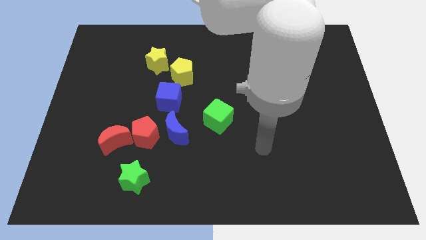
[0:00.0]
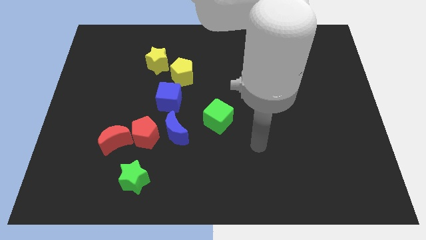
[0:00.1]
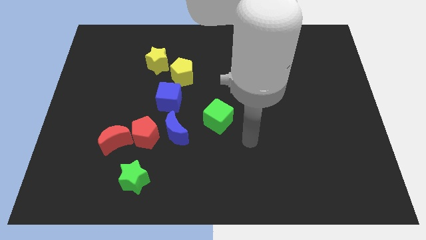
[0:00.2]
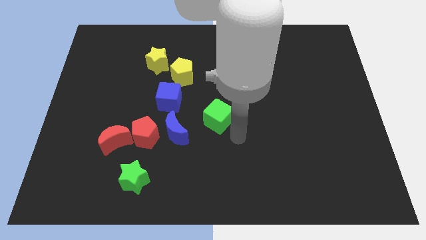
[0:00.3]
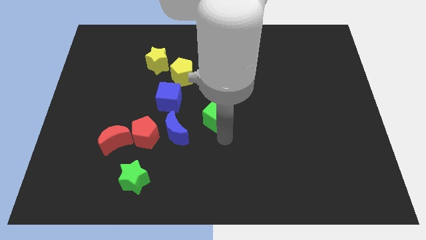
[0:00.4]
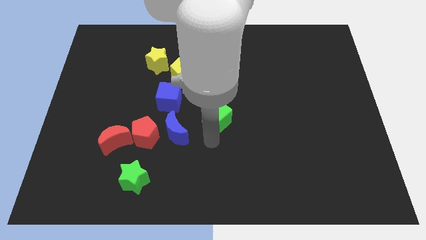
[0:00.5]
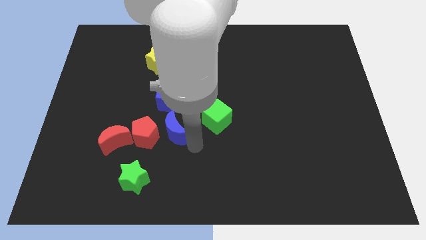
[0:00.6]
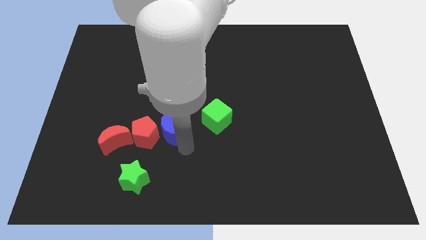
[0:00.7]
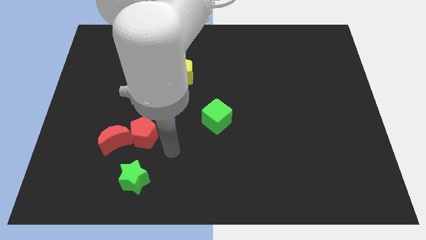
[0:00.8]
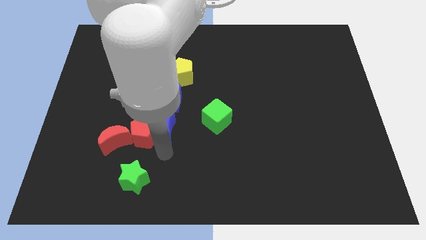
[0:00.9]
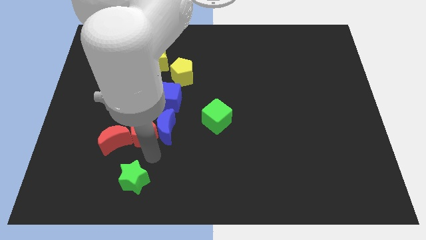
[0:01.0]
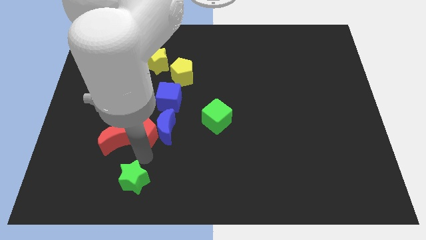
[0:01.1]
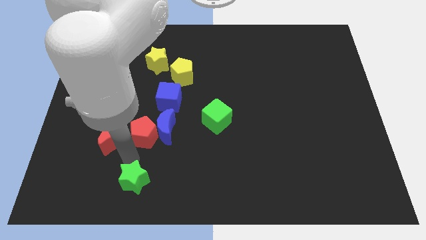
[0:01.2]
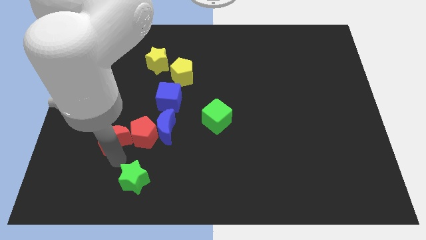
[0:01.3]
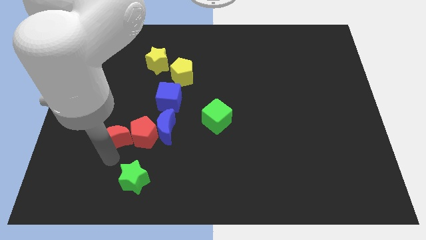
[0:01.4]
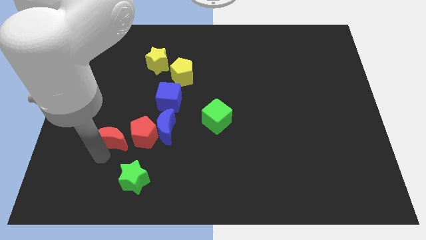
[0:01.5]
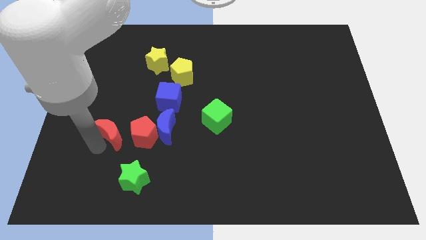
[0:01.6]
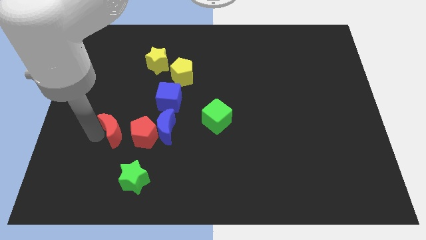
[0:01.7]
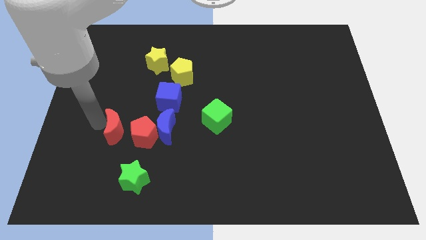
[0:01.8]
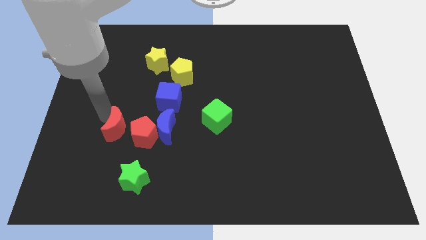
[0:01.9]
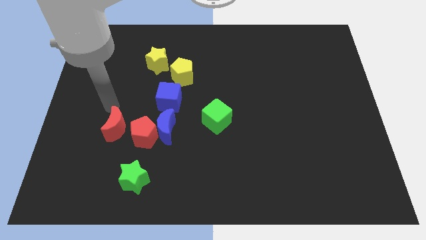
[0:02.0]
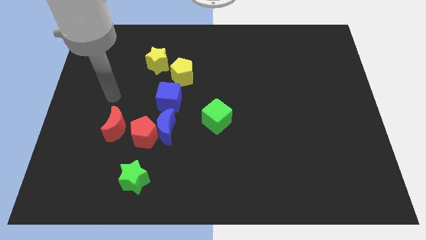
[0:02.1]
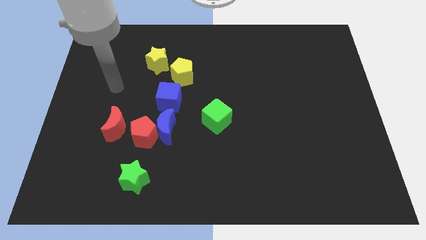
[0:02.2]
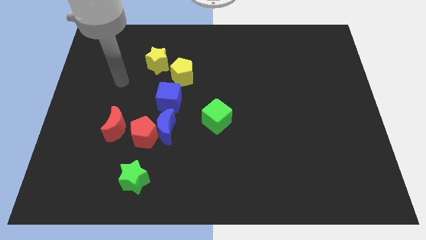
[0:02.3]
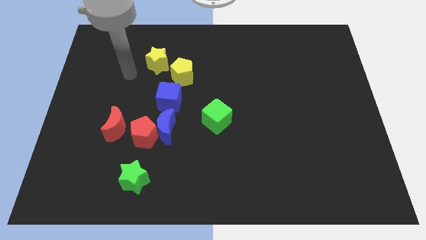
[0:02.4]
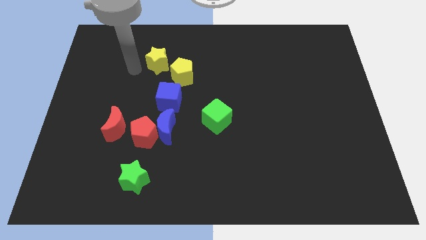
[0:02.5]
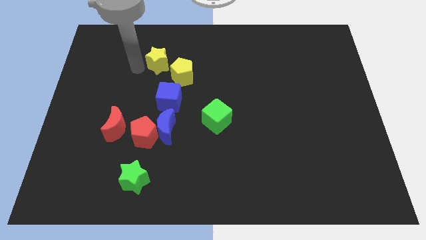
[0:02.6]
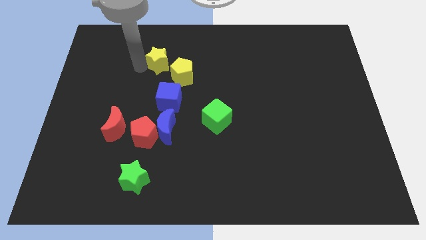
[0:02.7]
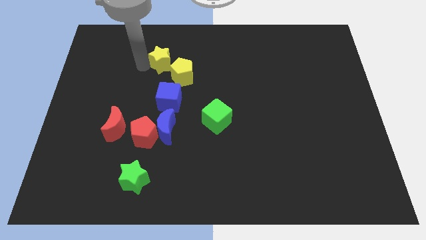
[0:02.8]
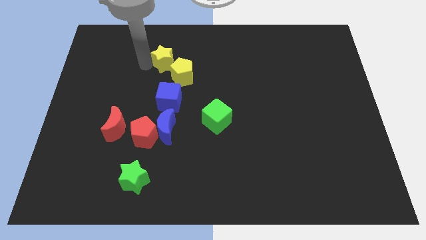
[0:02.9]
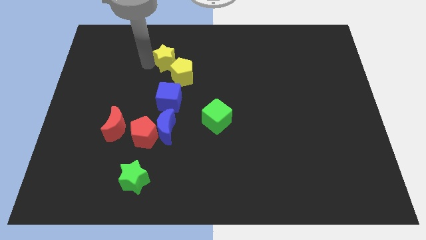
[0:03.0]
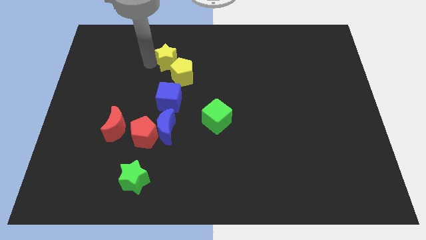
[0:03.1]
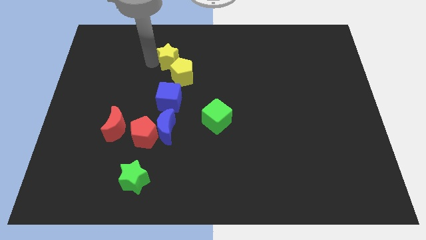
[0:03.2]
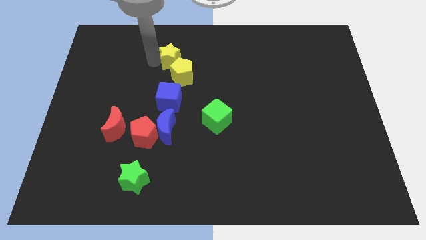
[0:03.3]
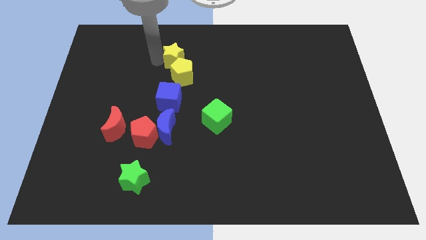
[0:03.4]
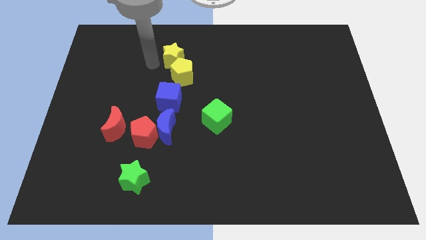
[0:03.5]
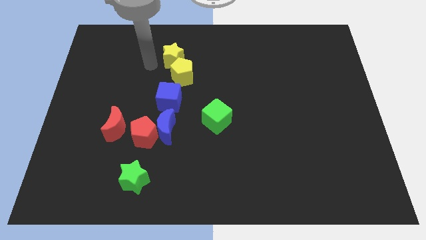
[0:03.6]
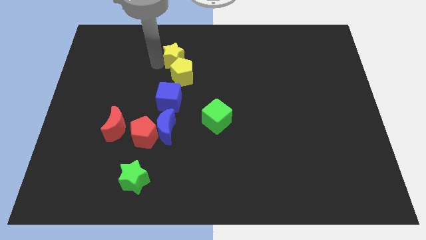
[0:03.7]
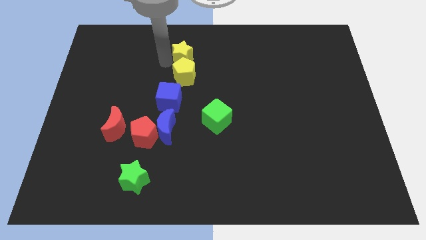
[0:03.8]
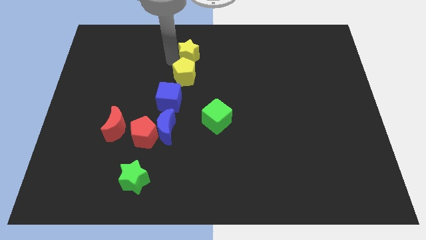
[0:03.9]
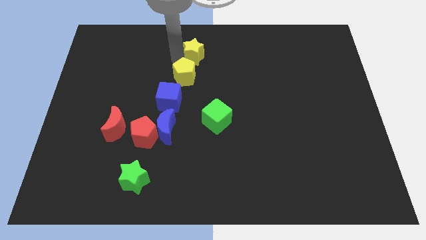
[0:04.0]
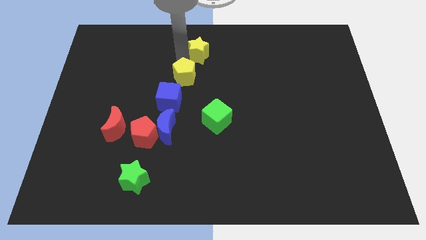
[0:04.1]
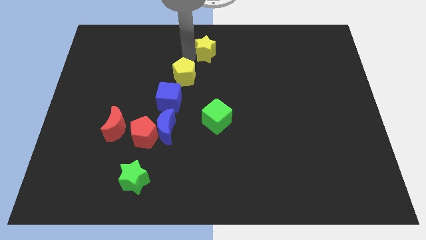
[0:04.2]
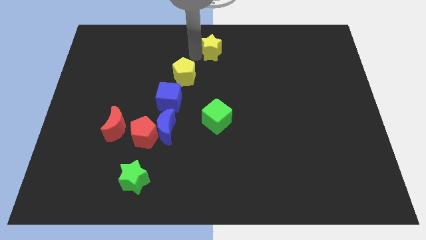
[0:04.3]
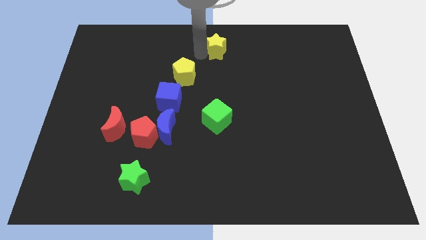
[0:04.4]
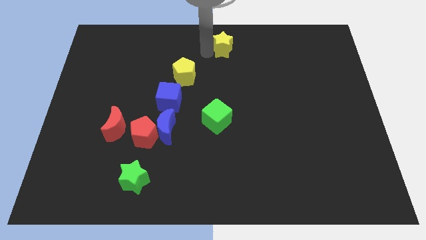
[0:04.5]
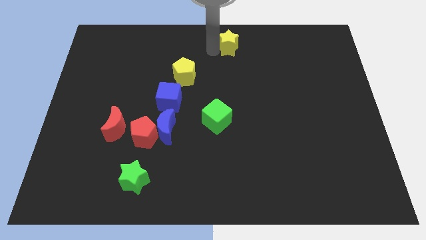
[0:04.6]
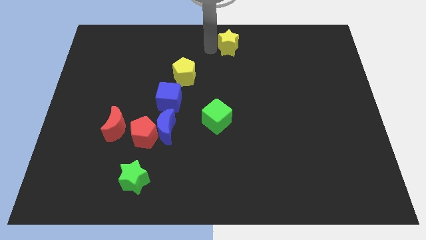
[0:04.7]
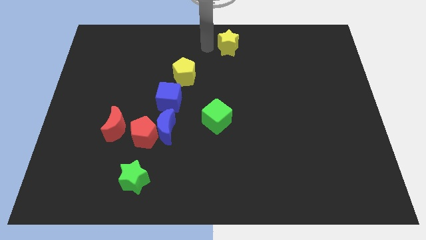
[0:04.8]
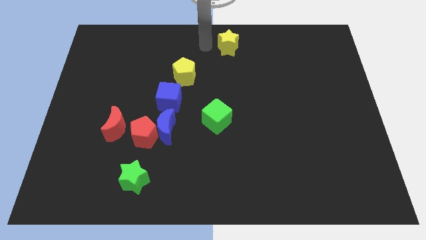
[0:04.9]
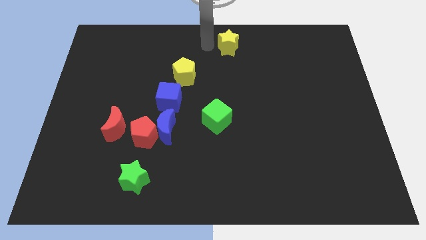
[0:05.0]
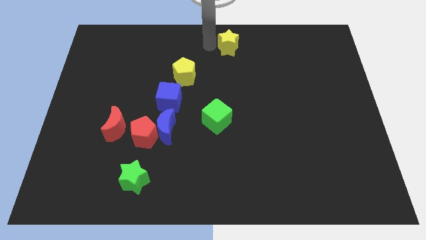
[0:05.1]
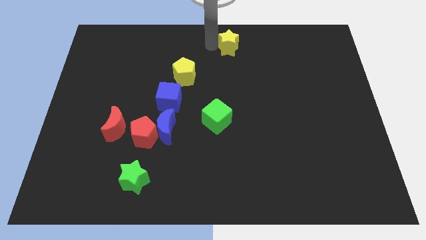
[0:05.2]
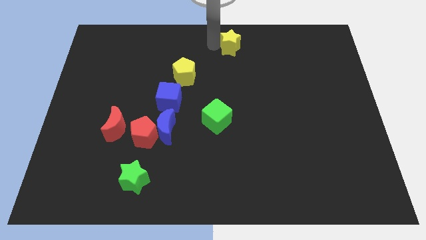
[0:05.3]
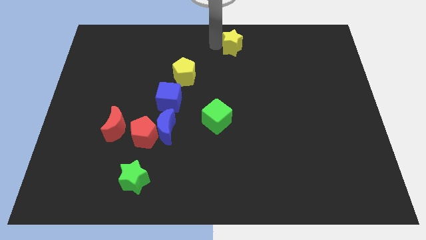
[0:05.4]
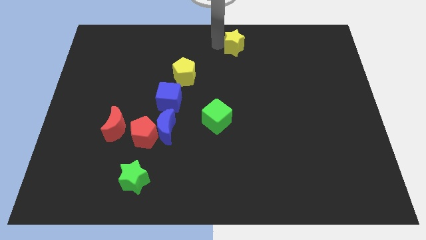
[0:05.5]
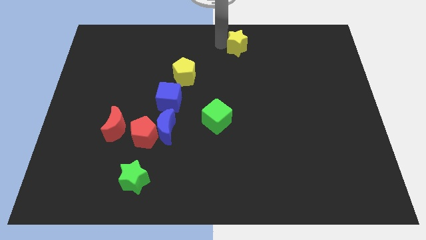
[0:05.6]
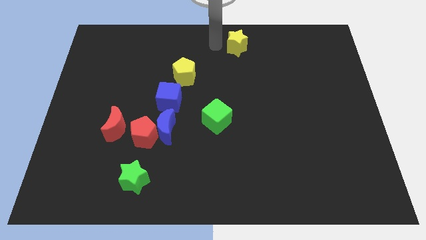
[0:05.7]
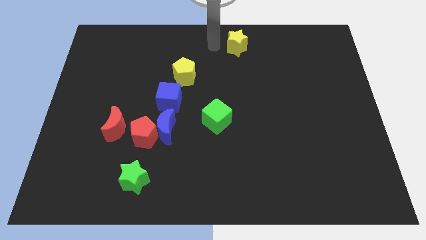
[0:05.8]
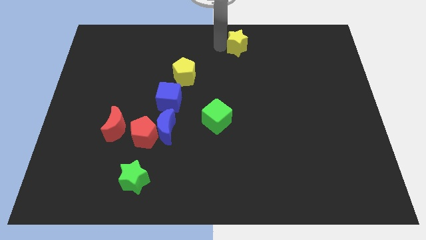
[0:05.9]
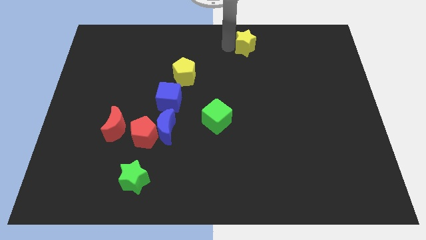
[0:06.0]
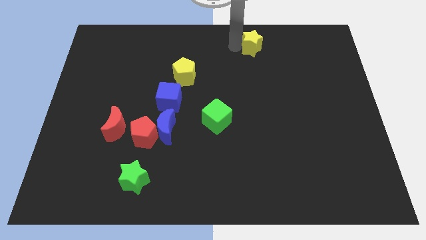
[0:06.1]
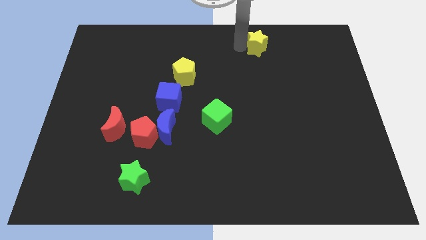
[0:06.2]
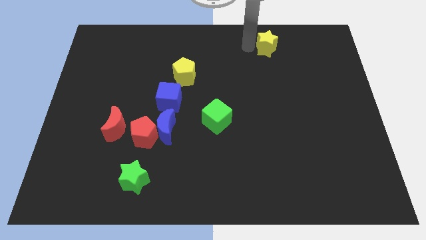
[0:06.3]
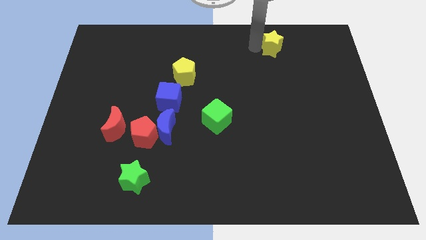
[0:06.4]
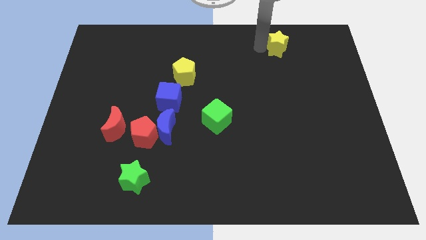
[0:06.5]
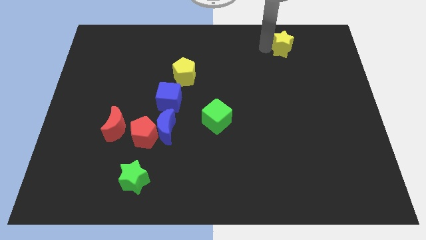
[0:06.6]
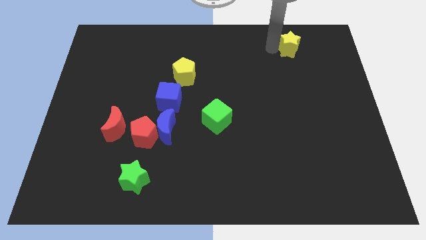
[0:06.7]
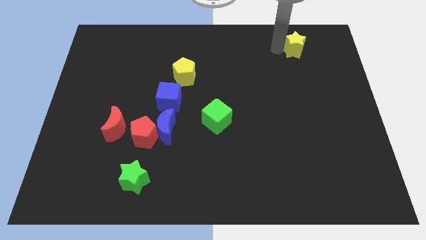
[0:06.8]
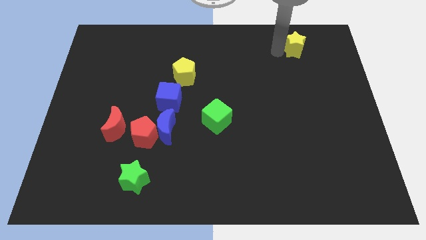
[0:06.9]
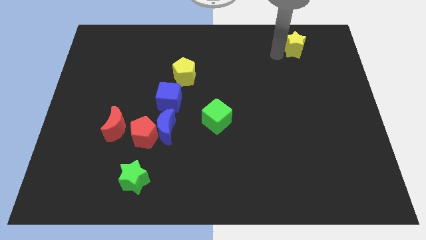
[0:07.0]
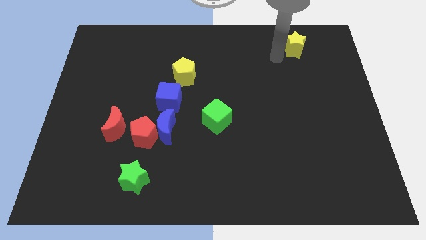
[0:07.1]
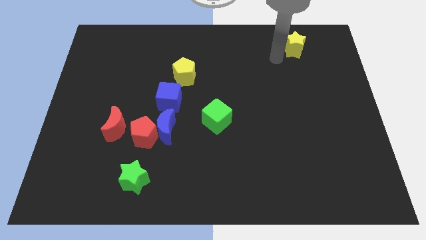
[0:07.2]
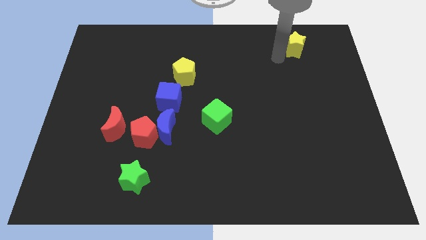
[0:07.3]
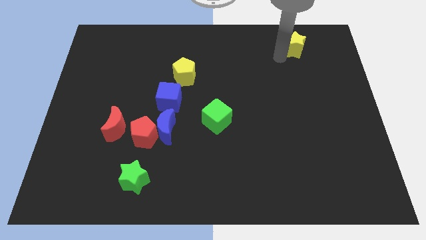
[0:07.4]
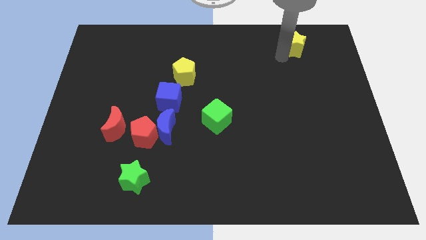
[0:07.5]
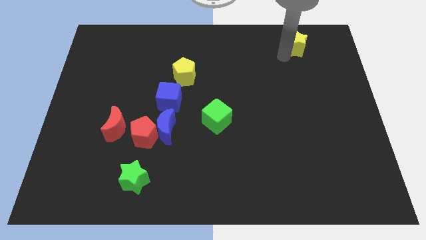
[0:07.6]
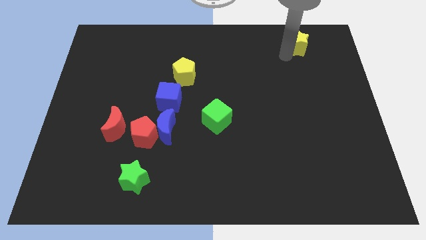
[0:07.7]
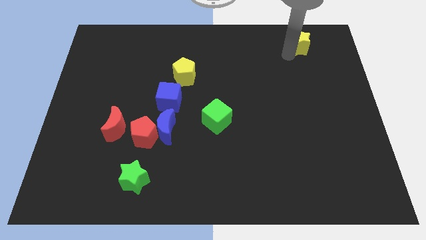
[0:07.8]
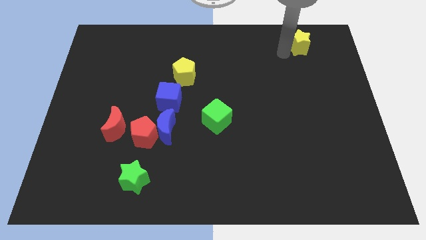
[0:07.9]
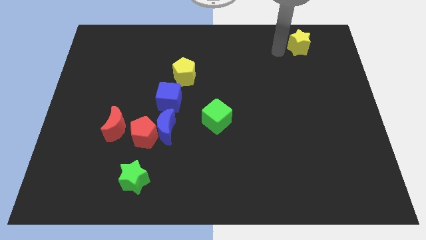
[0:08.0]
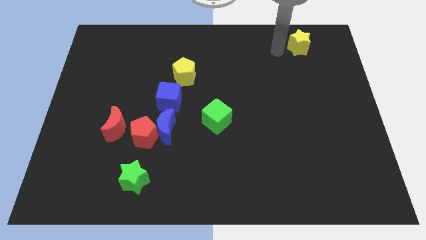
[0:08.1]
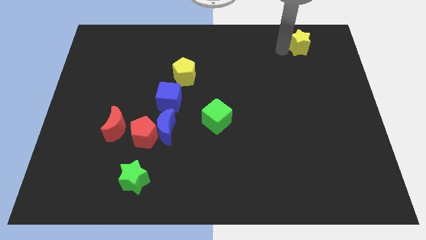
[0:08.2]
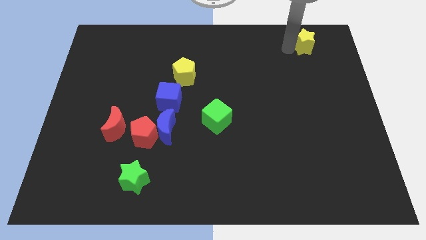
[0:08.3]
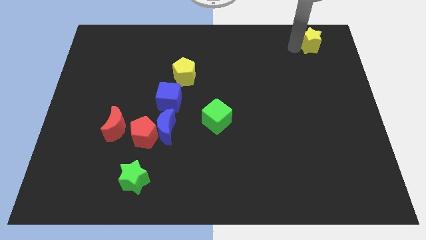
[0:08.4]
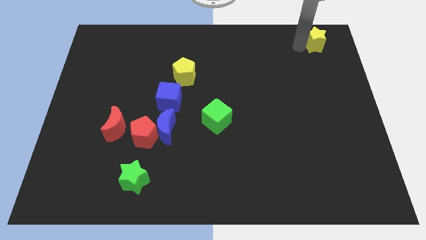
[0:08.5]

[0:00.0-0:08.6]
push the yellow star to the upper right corner
